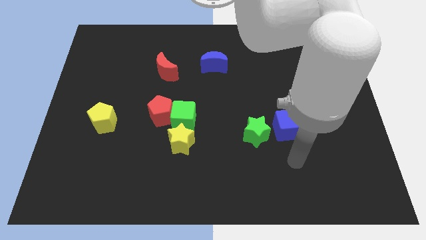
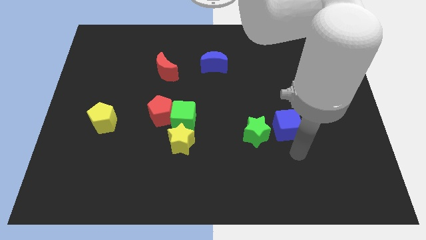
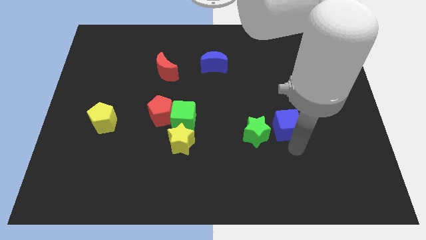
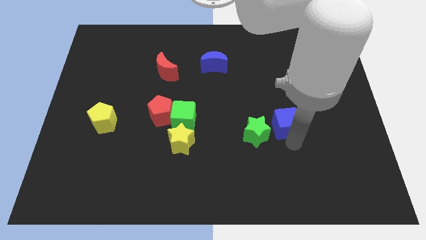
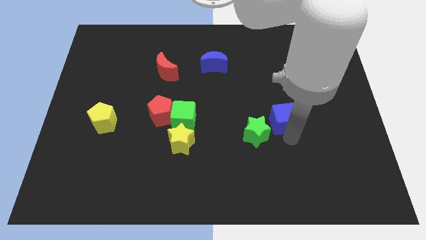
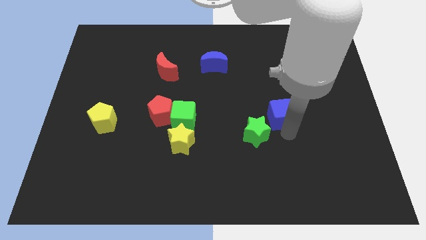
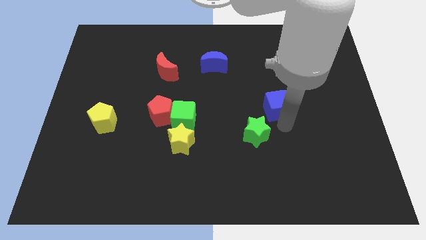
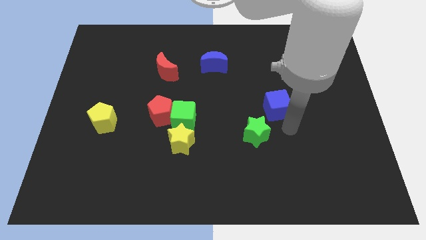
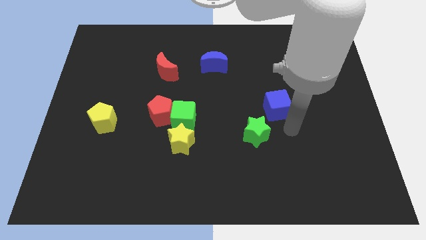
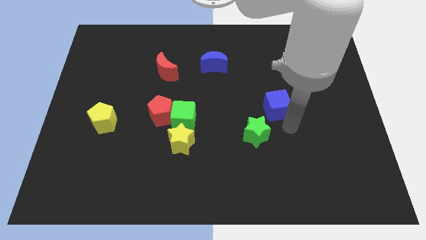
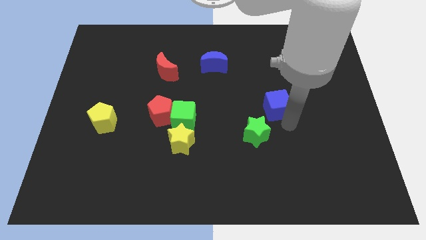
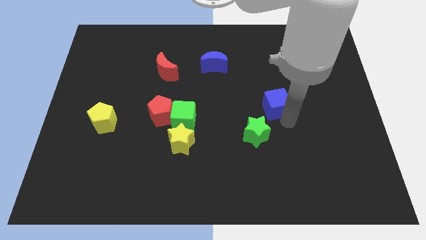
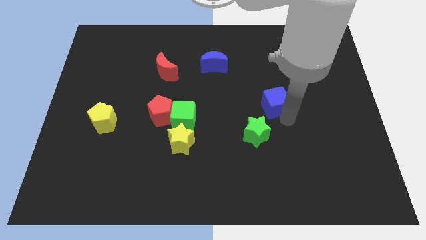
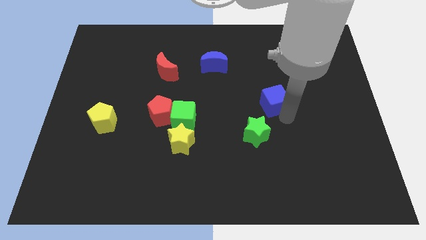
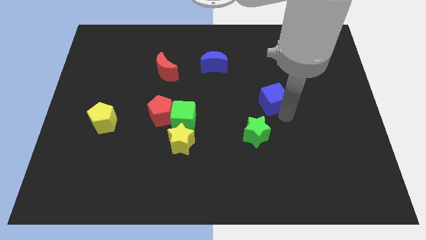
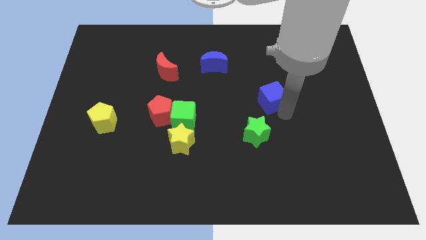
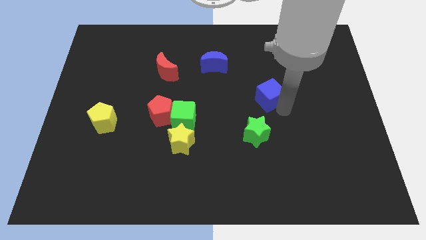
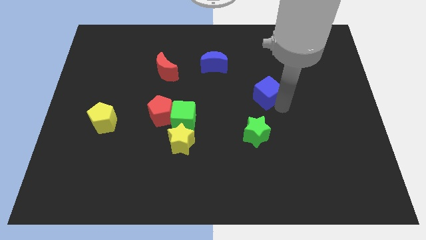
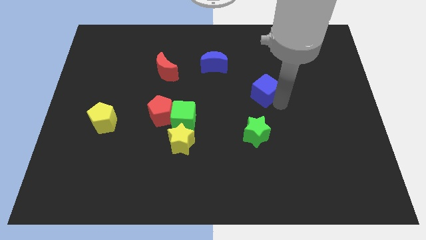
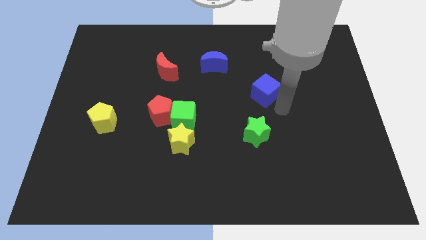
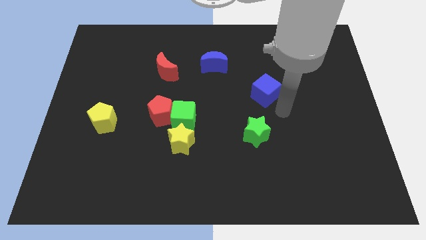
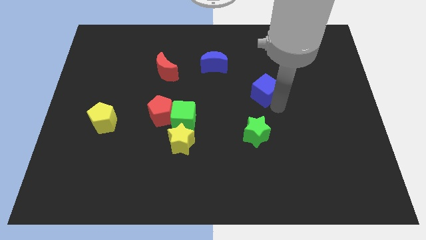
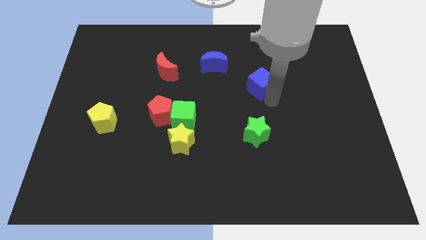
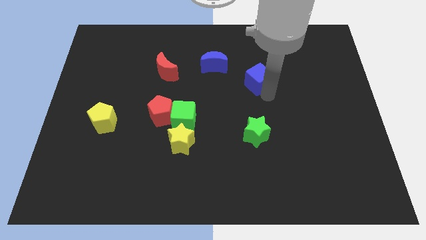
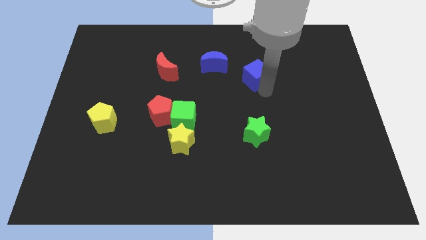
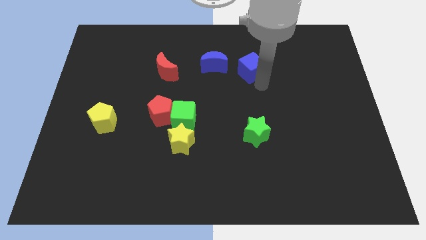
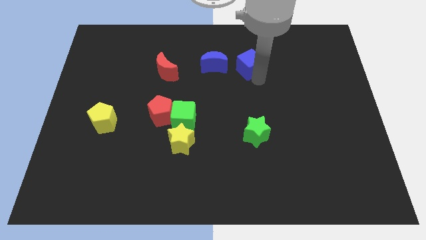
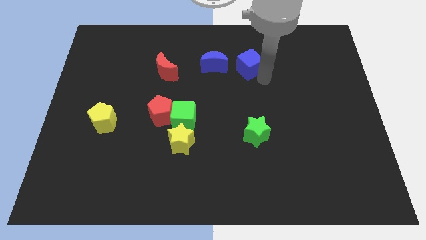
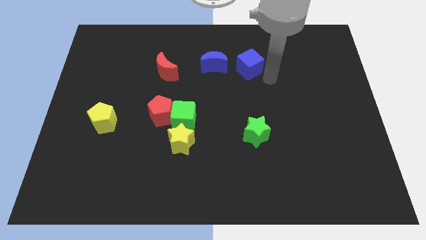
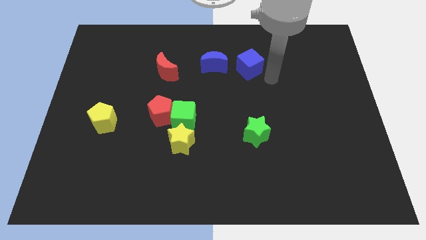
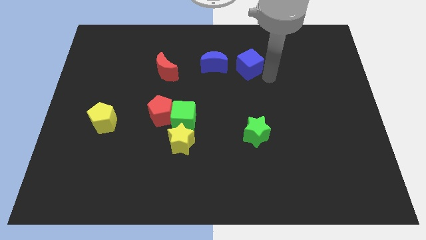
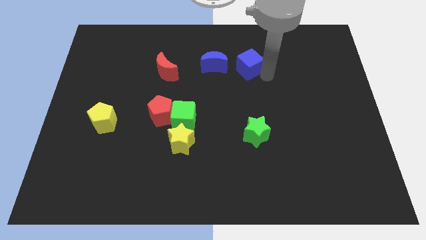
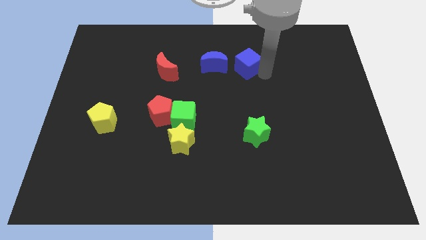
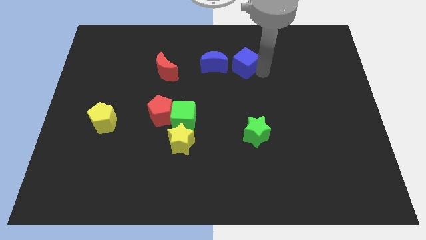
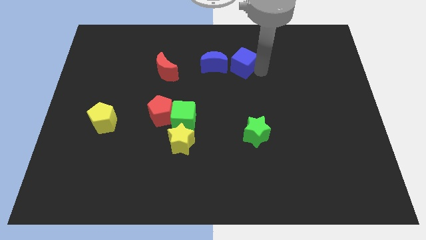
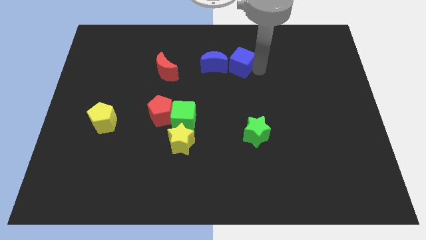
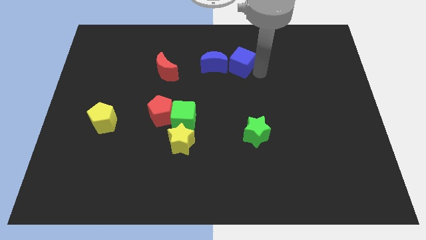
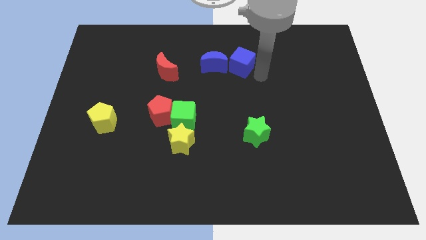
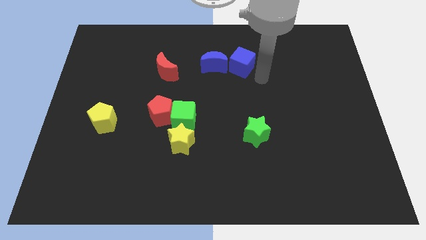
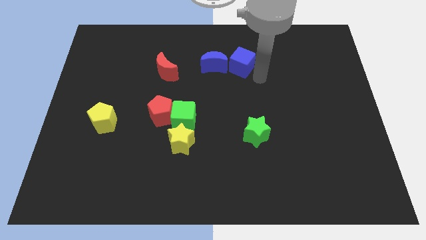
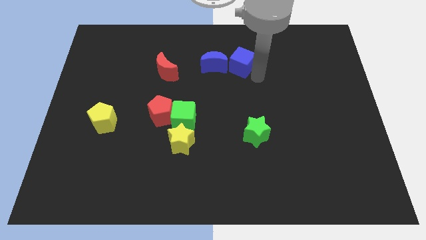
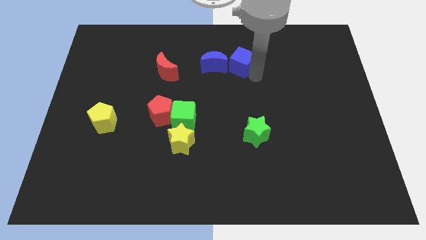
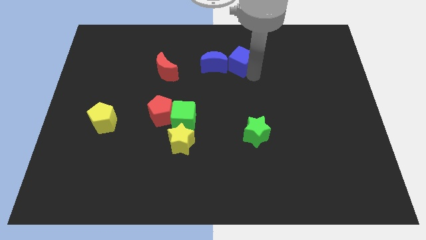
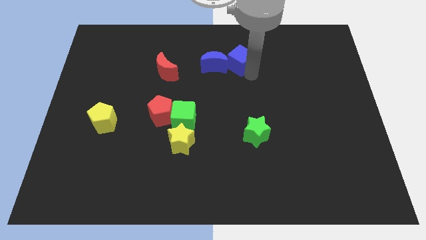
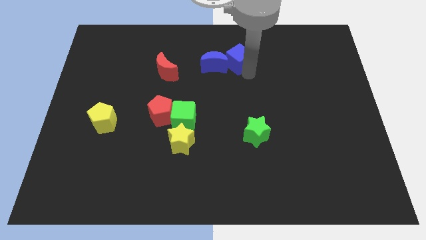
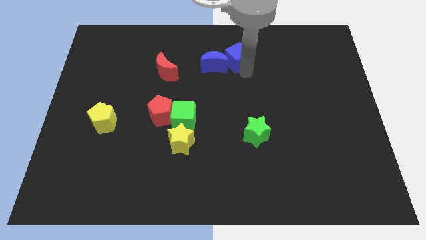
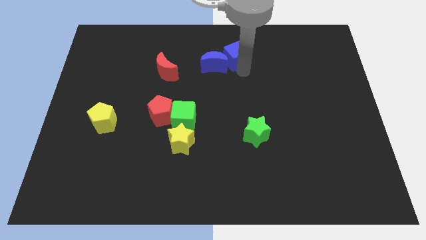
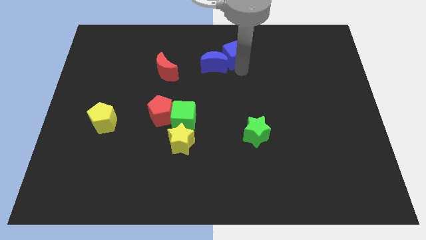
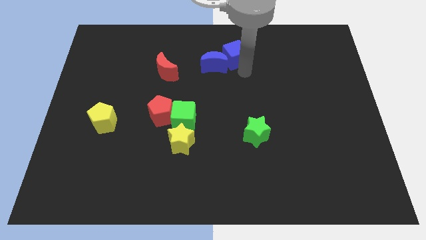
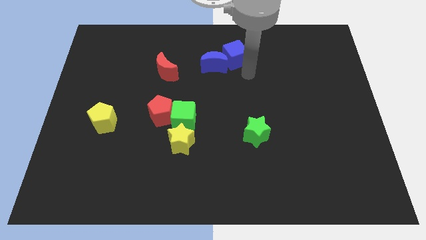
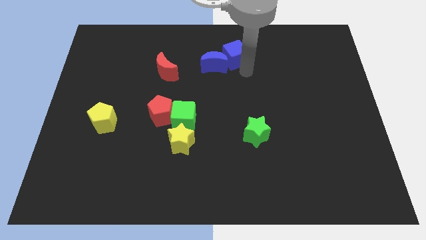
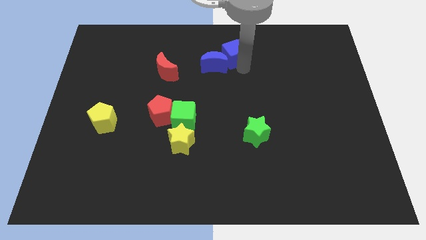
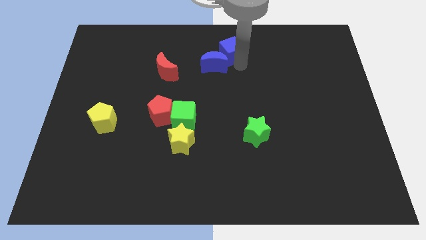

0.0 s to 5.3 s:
slide the blue cube to the top side
